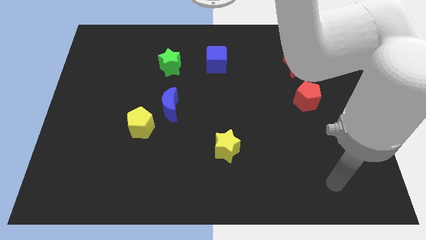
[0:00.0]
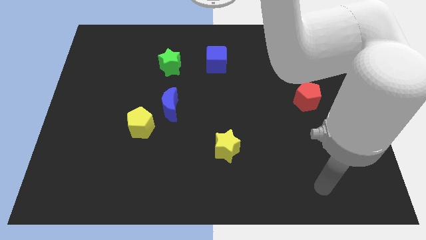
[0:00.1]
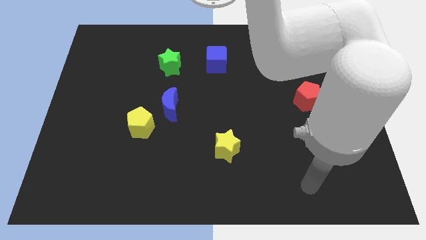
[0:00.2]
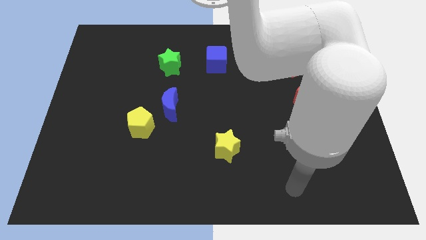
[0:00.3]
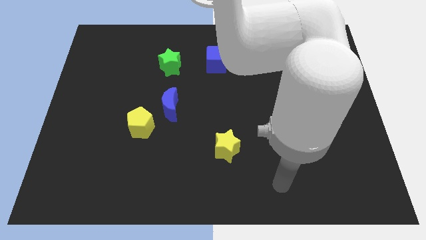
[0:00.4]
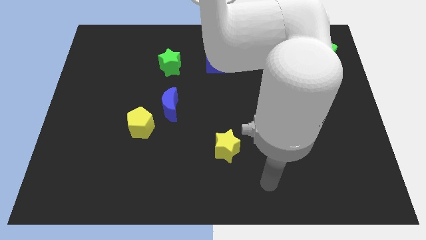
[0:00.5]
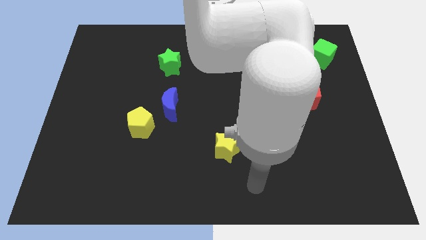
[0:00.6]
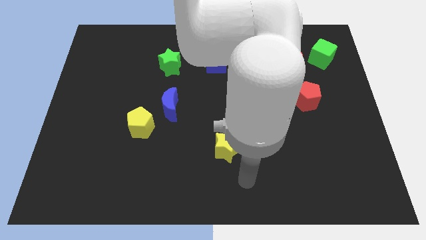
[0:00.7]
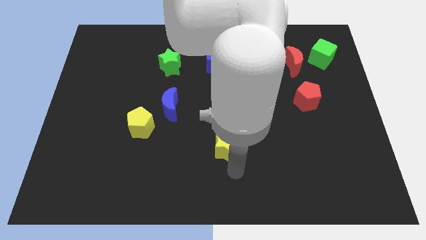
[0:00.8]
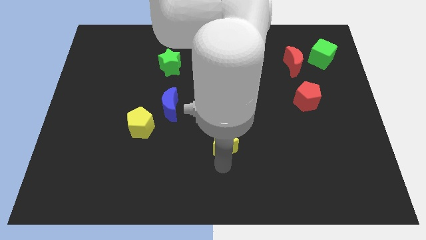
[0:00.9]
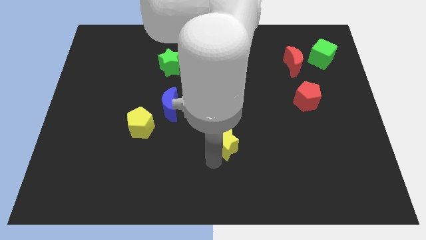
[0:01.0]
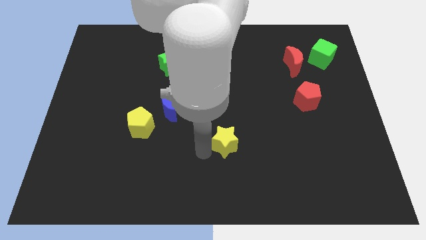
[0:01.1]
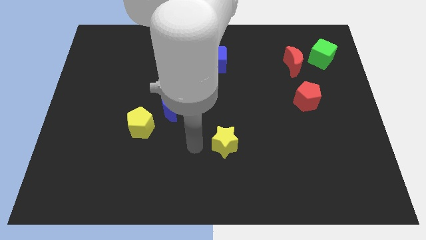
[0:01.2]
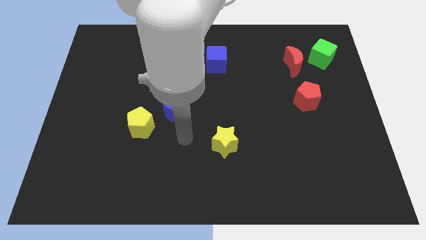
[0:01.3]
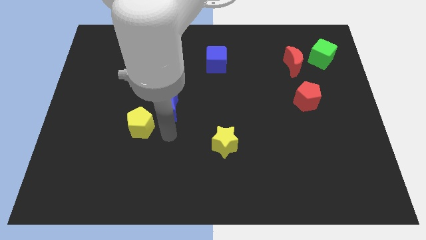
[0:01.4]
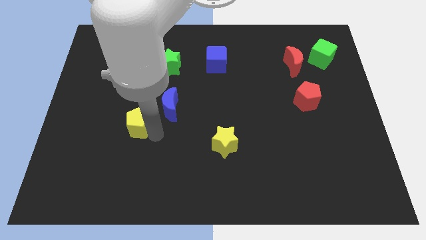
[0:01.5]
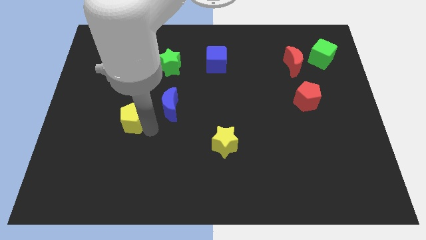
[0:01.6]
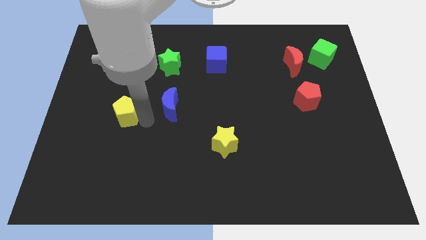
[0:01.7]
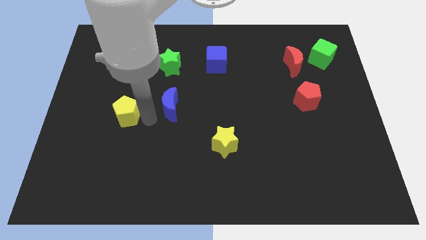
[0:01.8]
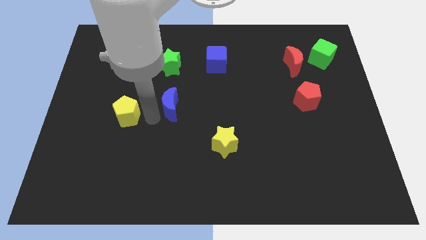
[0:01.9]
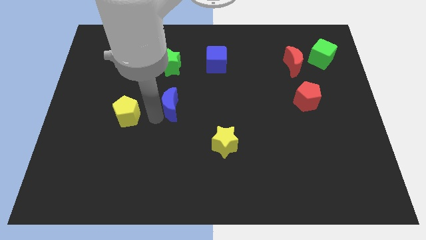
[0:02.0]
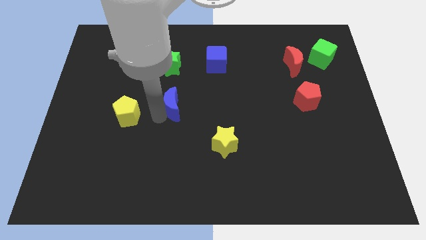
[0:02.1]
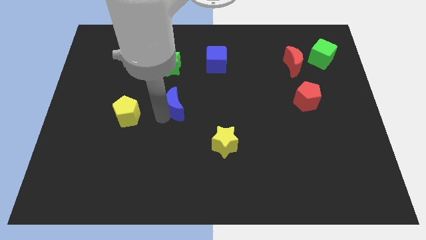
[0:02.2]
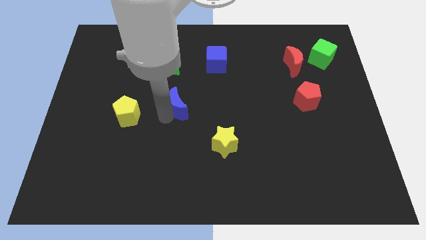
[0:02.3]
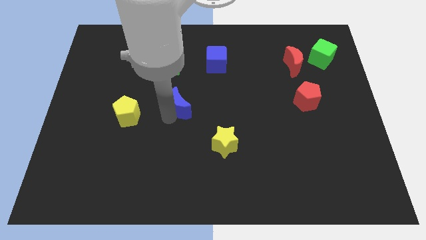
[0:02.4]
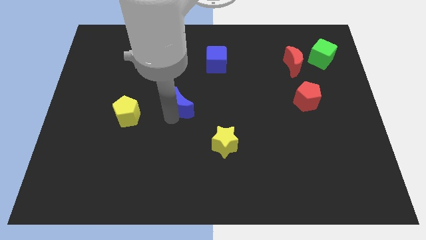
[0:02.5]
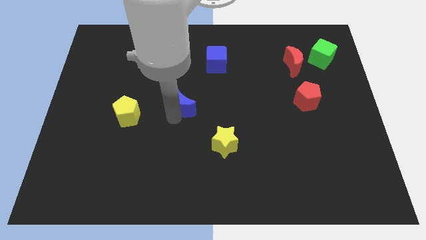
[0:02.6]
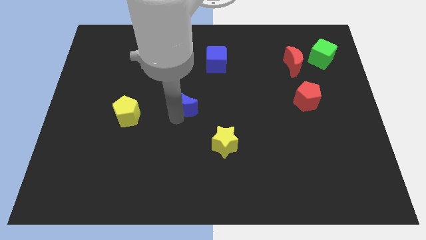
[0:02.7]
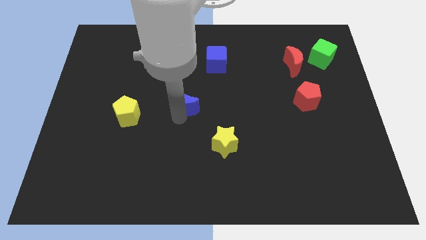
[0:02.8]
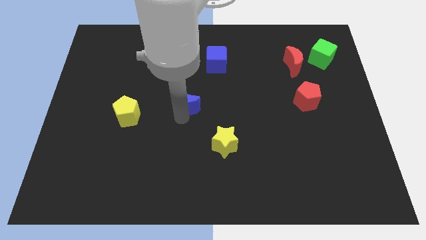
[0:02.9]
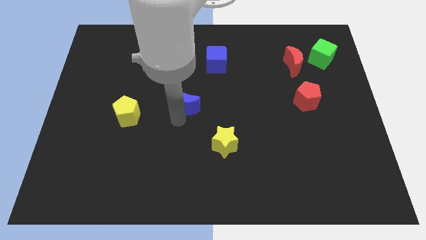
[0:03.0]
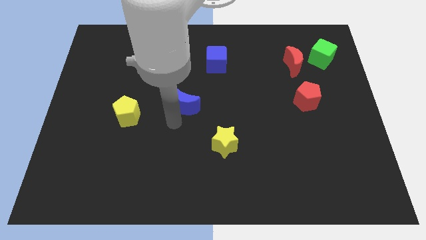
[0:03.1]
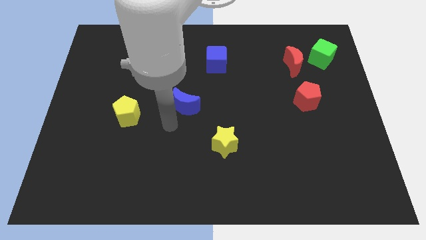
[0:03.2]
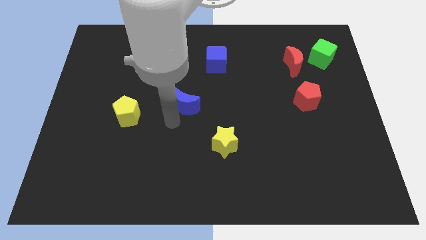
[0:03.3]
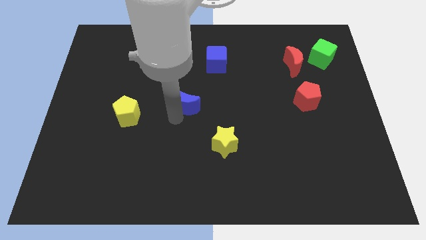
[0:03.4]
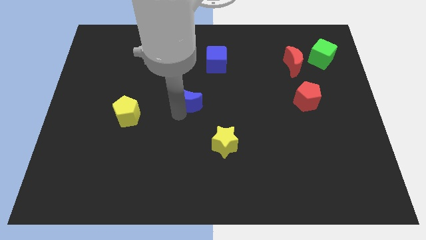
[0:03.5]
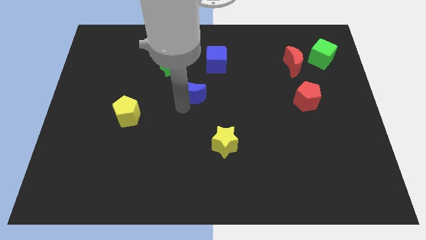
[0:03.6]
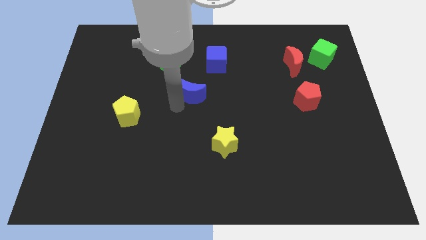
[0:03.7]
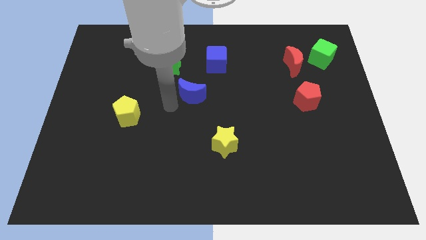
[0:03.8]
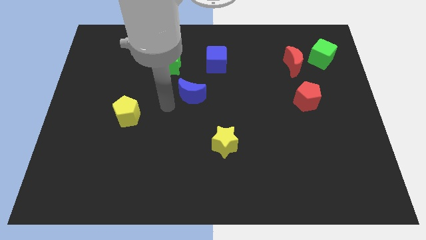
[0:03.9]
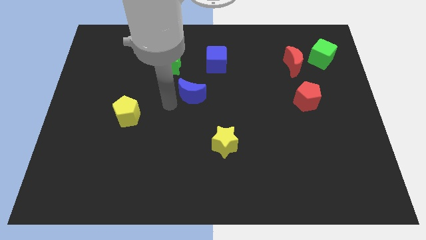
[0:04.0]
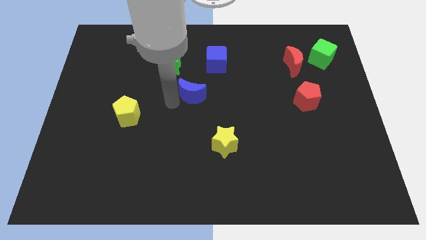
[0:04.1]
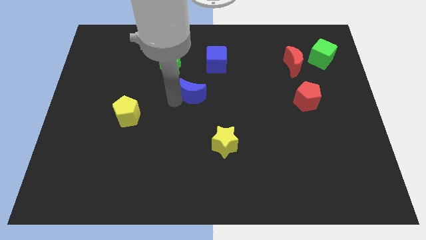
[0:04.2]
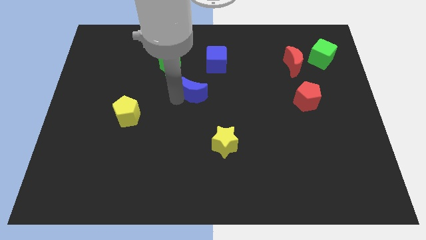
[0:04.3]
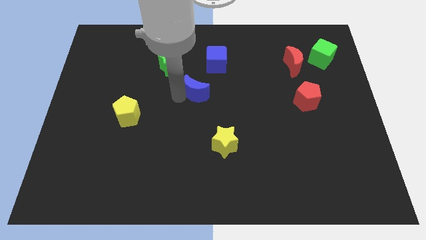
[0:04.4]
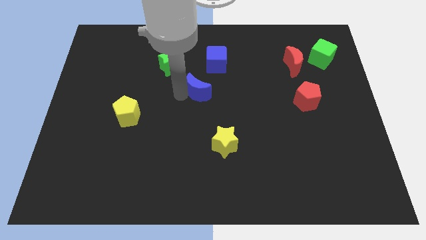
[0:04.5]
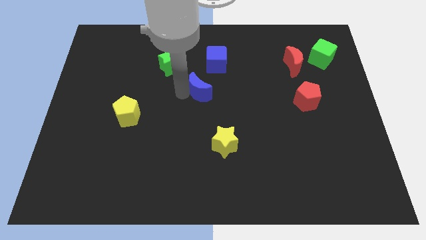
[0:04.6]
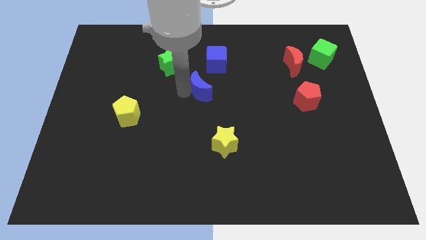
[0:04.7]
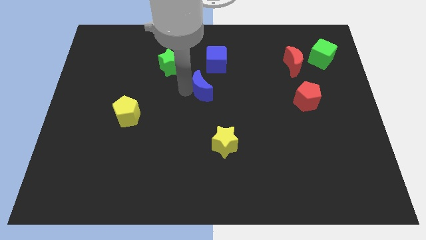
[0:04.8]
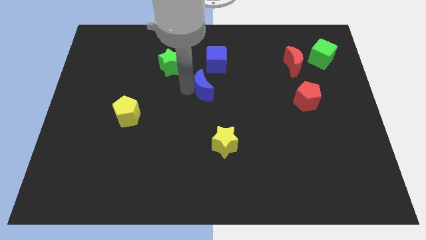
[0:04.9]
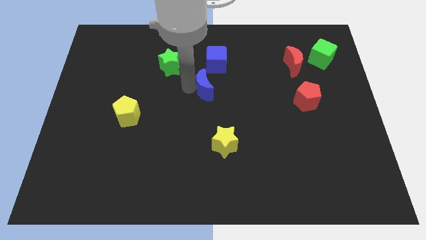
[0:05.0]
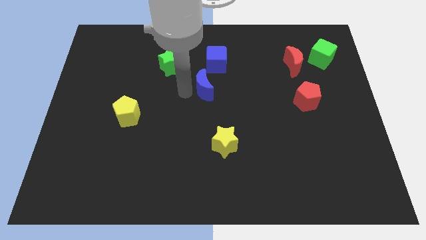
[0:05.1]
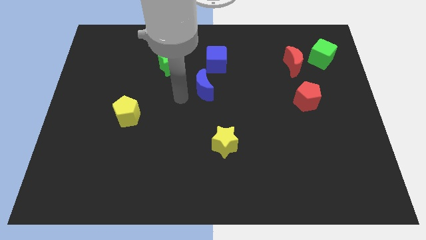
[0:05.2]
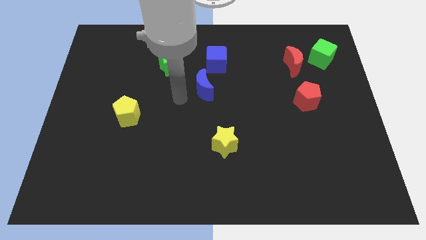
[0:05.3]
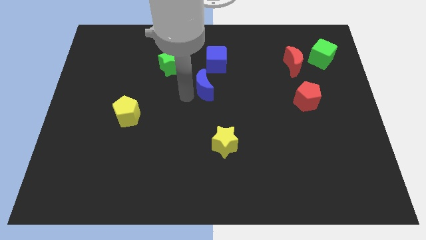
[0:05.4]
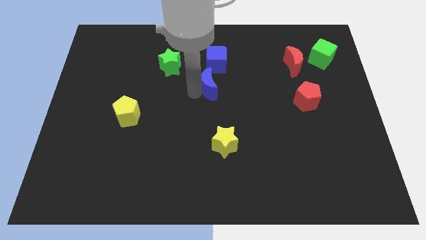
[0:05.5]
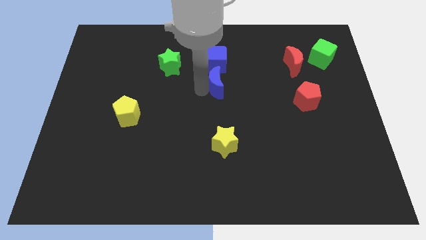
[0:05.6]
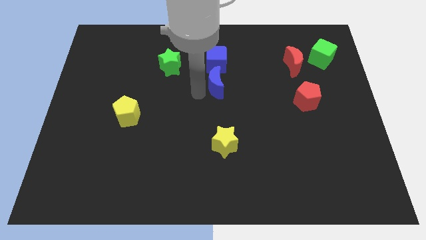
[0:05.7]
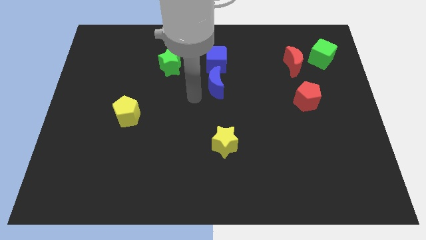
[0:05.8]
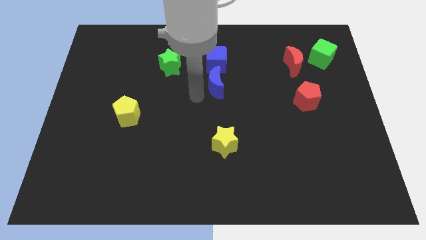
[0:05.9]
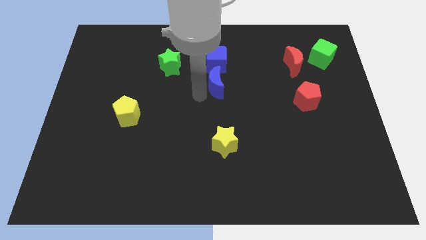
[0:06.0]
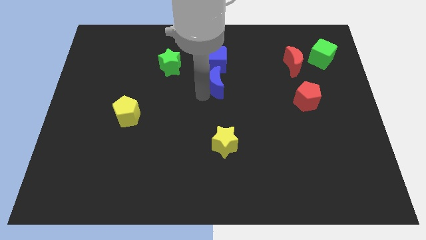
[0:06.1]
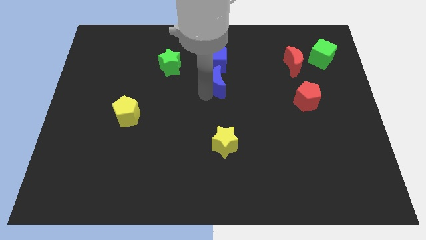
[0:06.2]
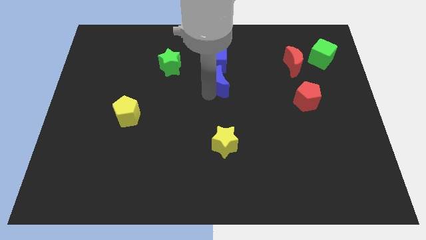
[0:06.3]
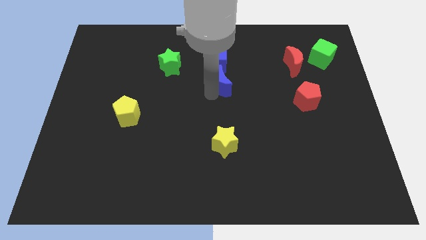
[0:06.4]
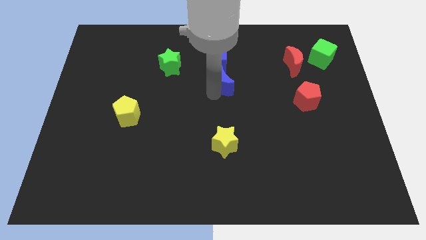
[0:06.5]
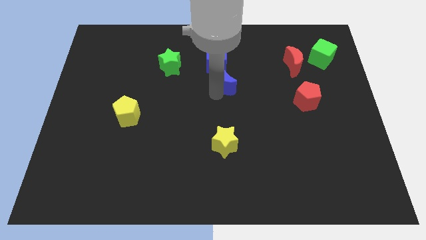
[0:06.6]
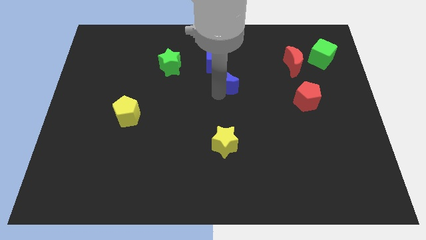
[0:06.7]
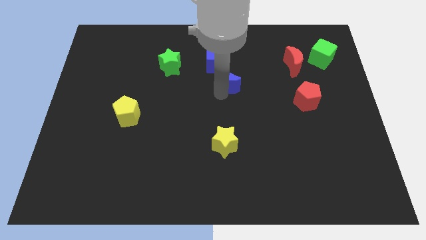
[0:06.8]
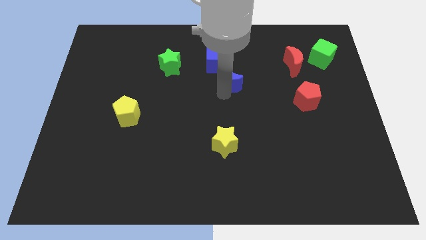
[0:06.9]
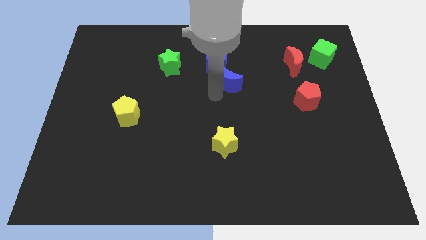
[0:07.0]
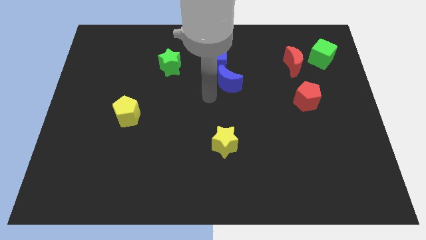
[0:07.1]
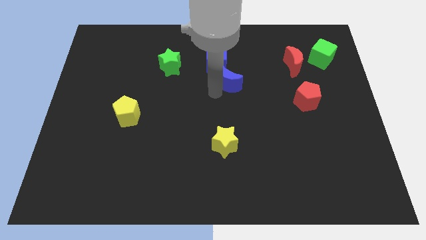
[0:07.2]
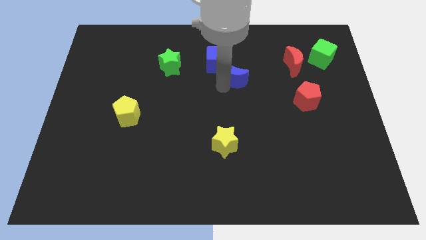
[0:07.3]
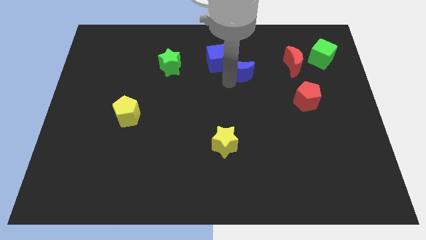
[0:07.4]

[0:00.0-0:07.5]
put the blue moon right of the blue cube
